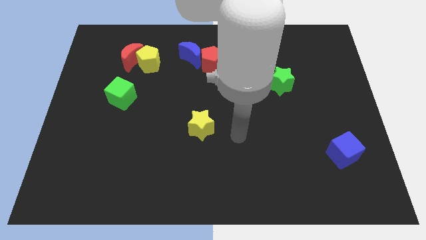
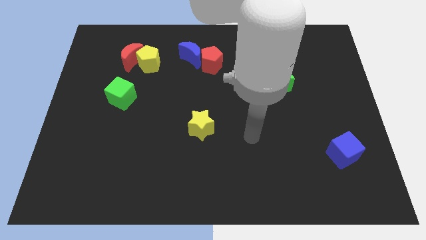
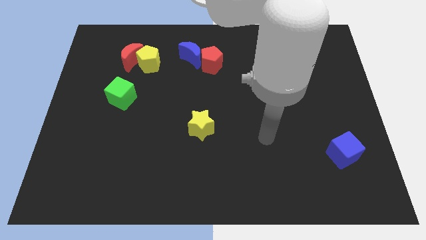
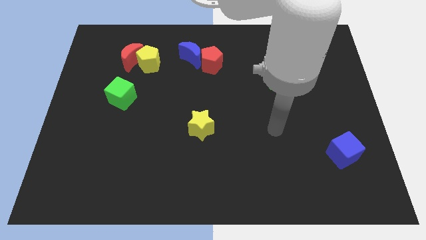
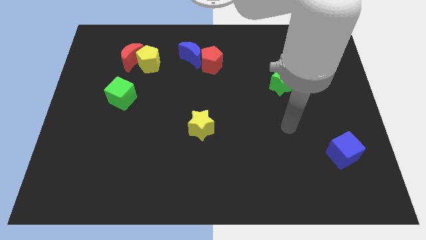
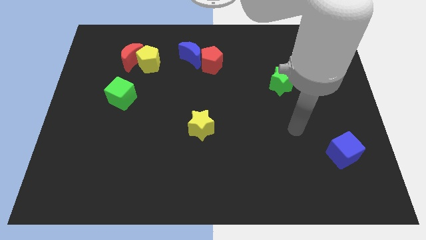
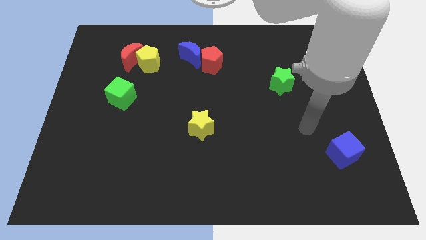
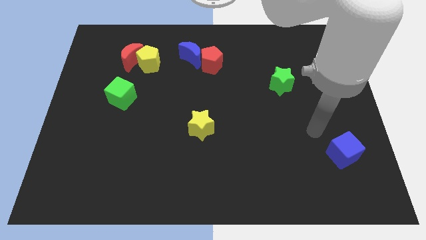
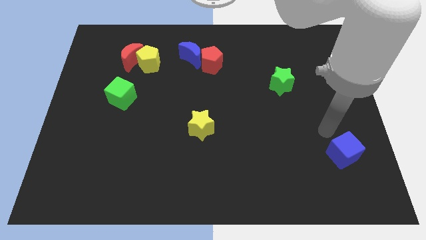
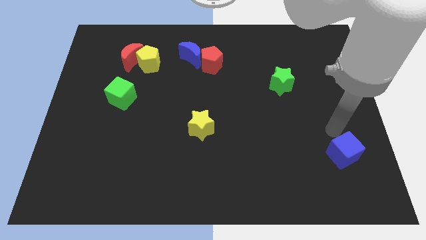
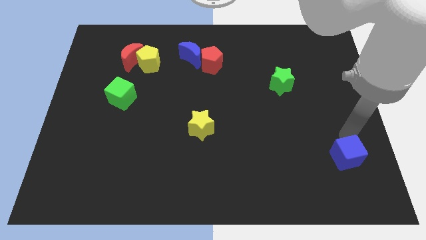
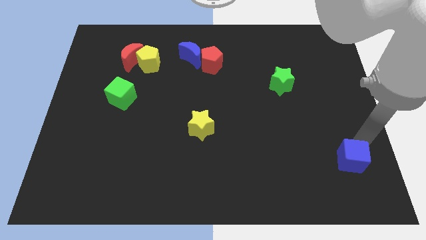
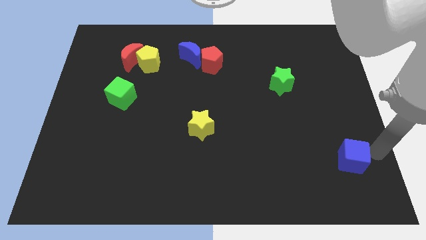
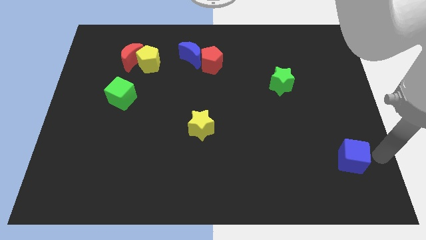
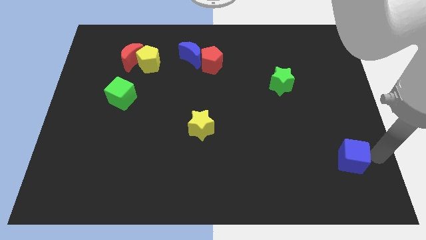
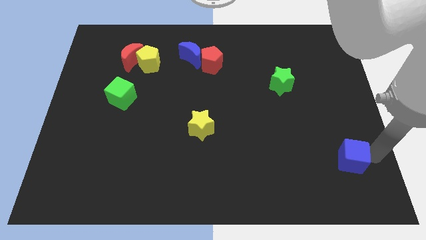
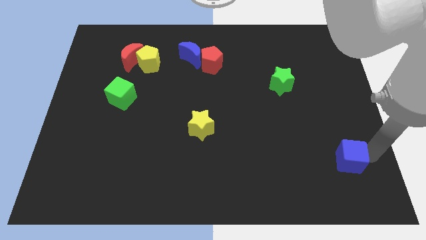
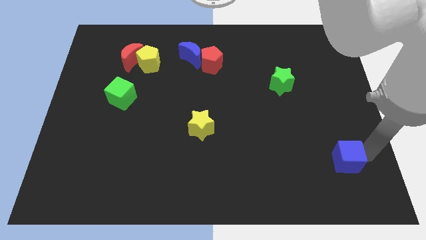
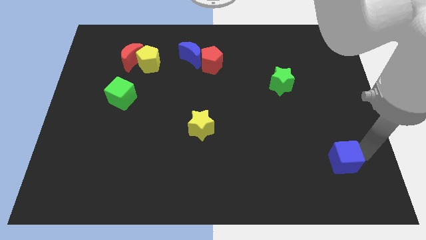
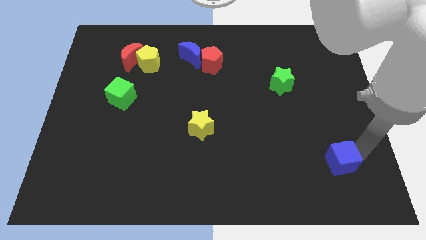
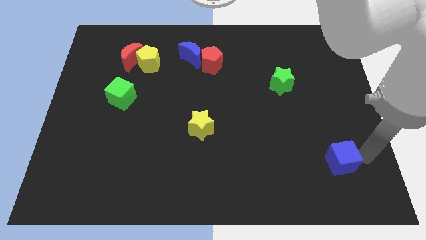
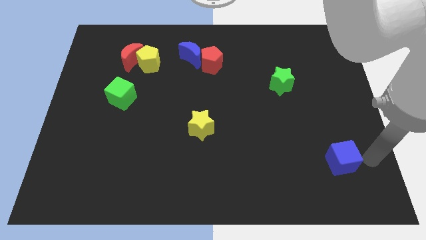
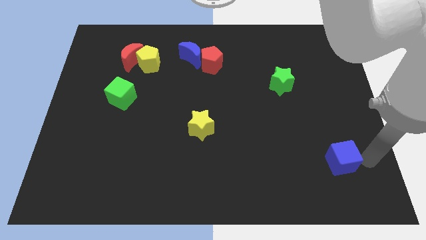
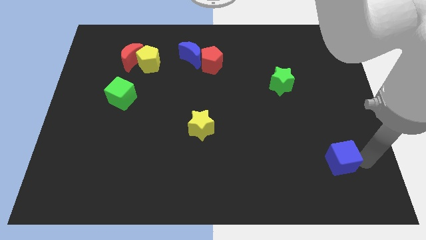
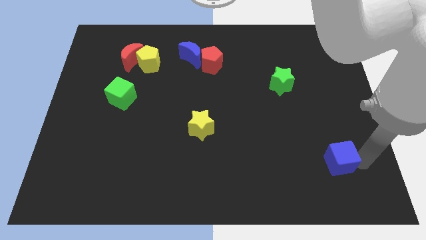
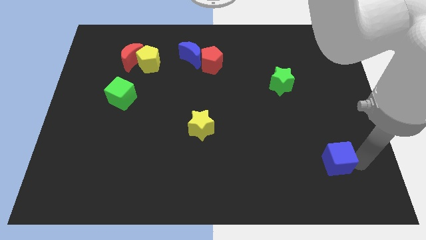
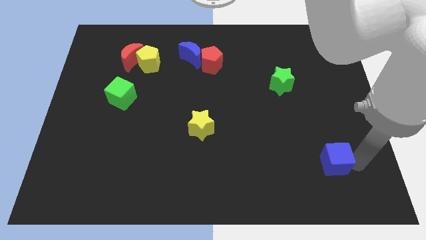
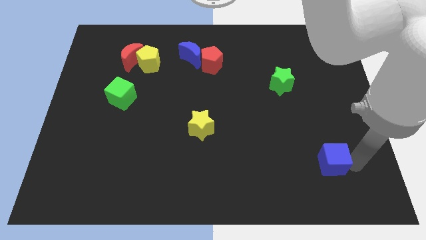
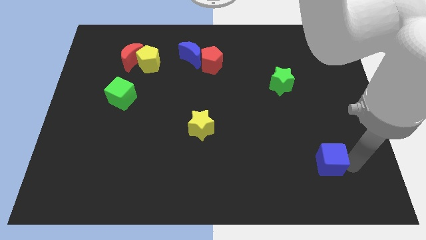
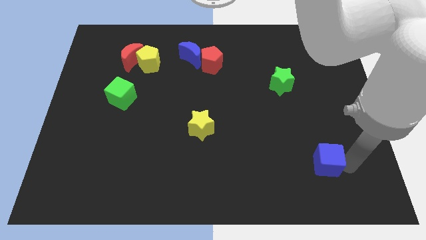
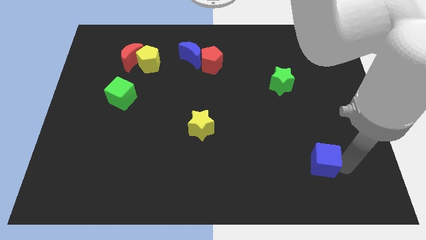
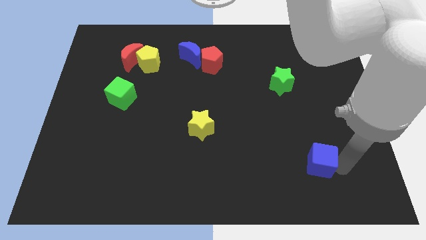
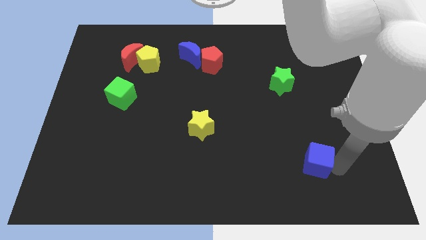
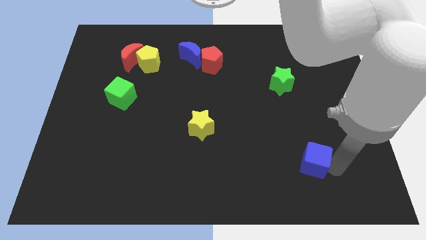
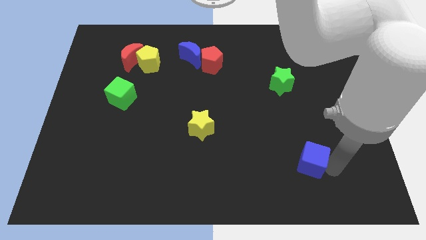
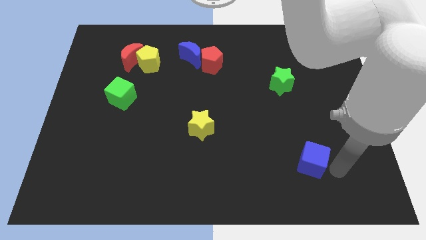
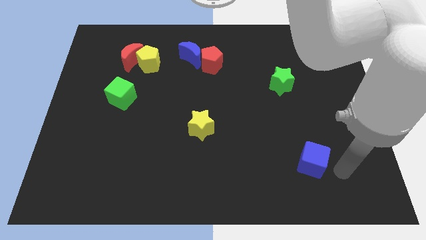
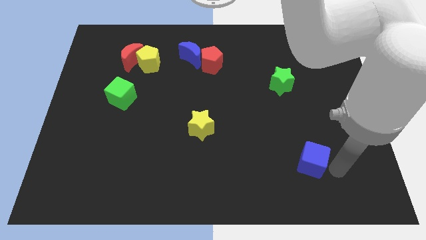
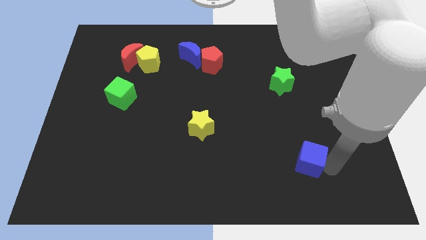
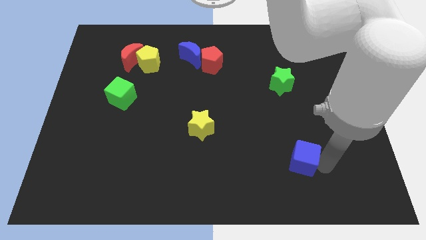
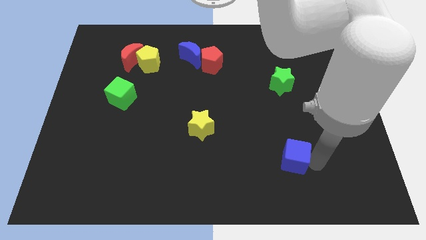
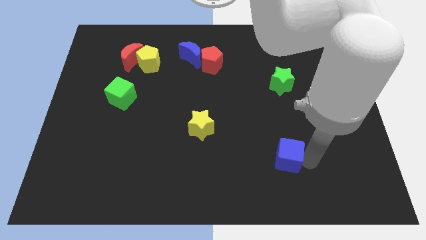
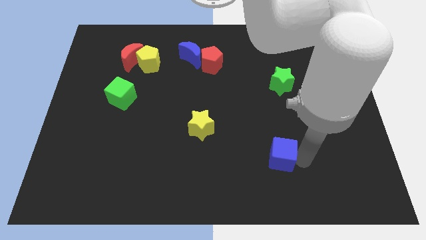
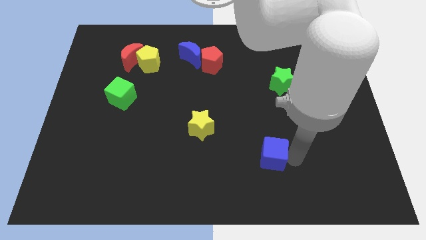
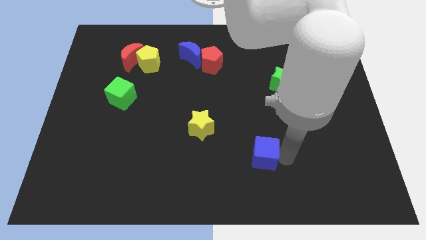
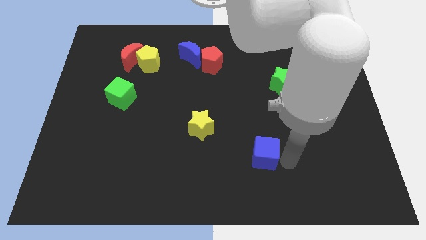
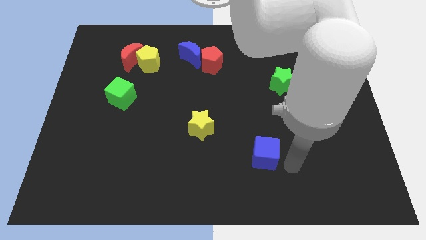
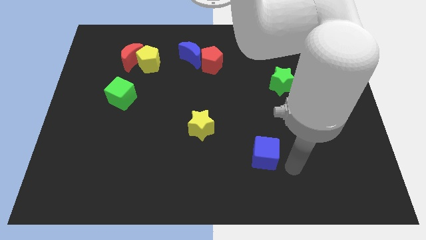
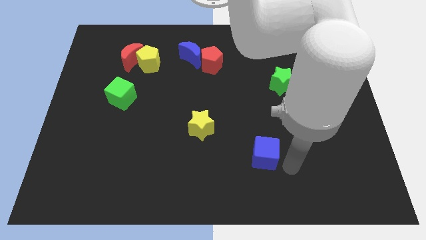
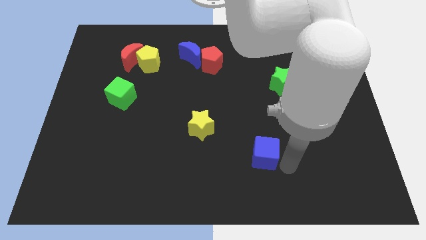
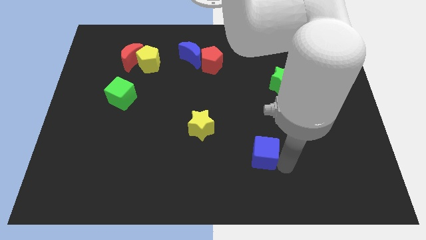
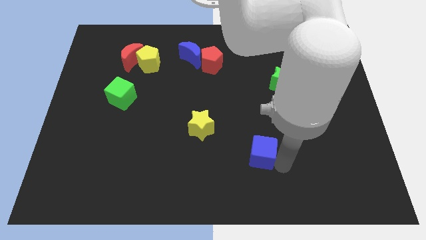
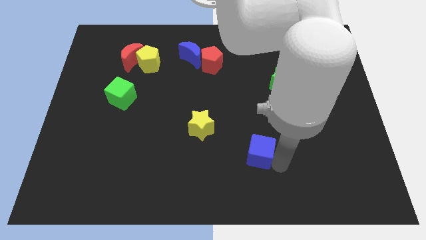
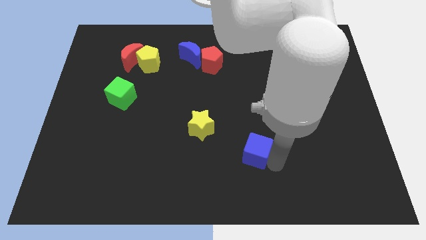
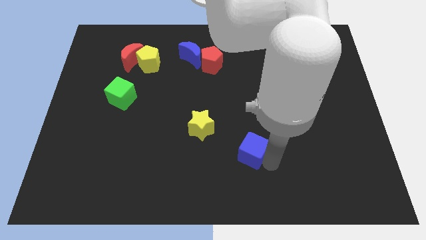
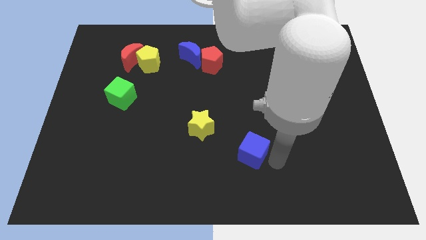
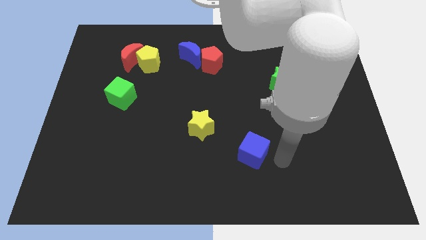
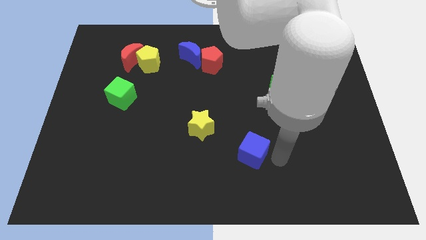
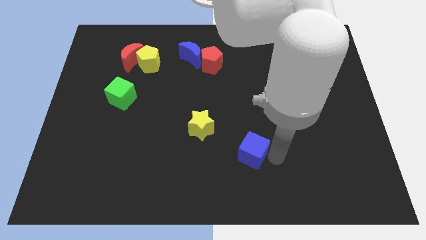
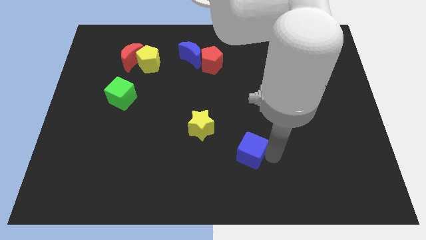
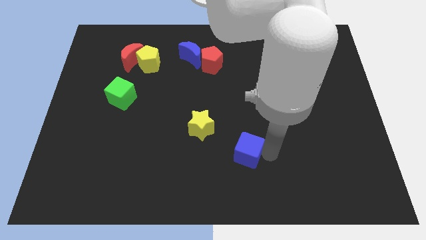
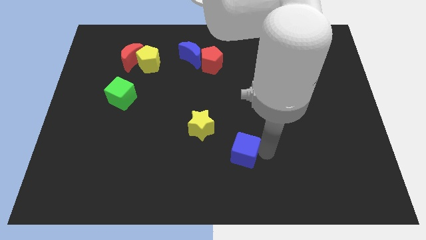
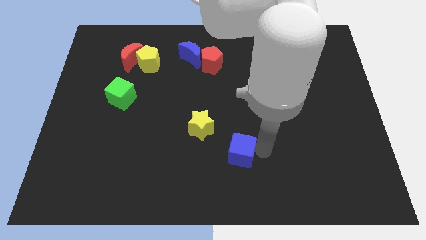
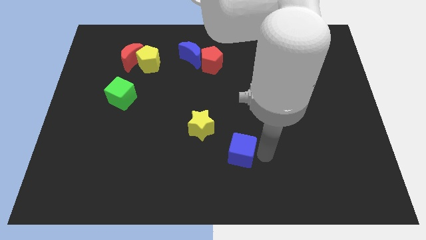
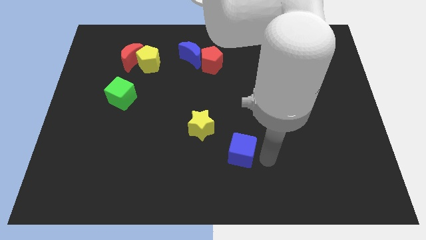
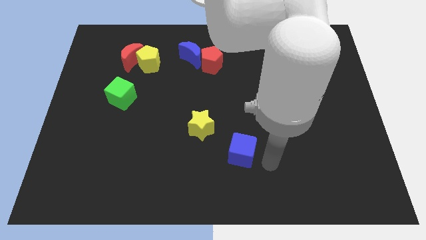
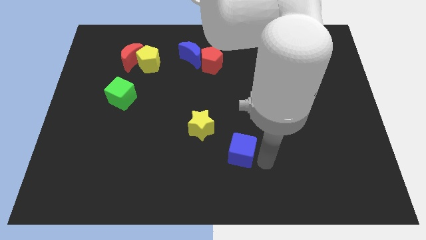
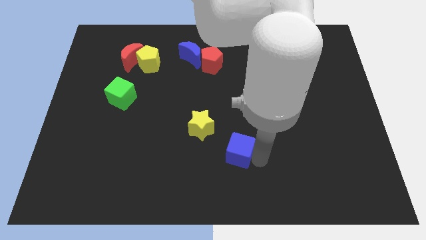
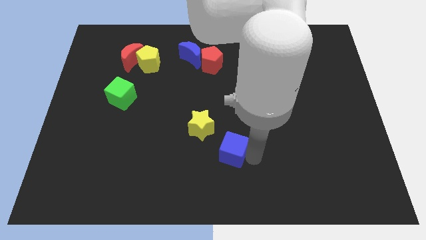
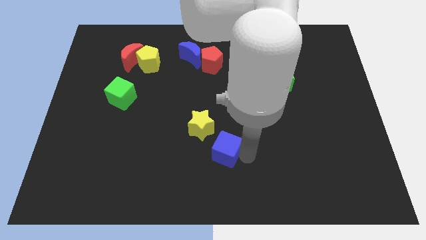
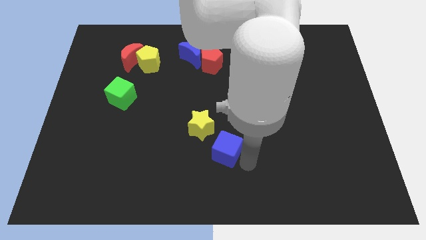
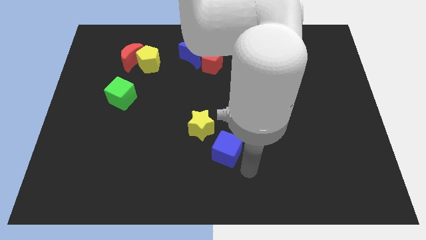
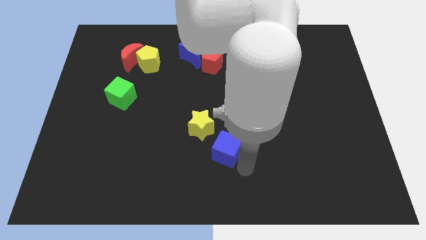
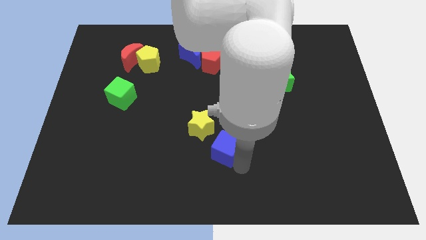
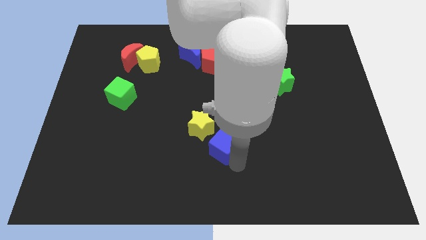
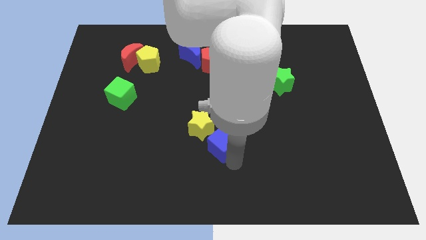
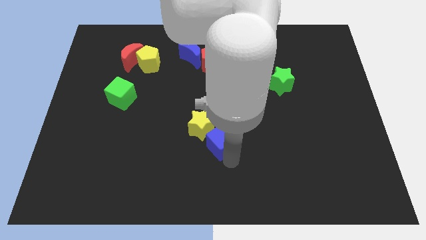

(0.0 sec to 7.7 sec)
put the blue cube close to the yellow star
